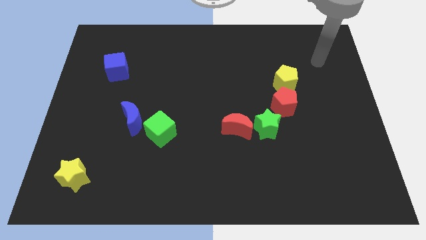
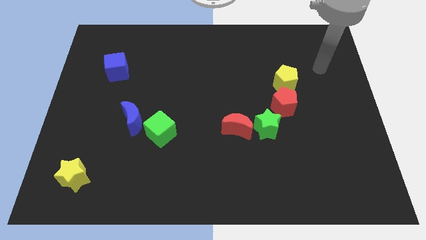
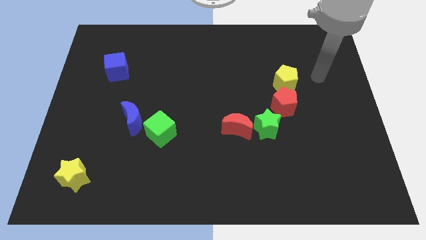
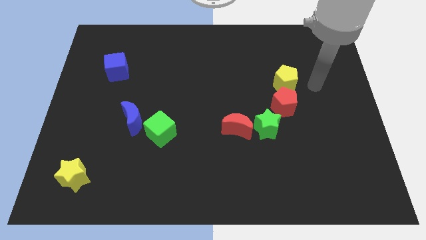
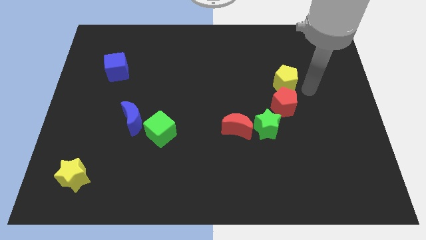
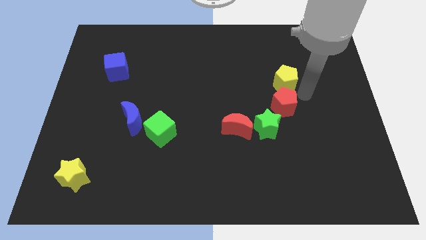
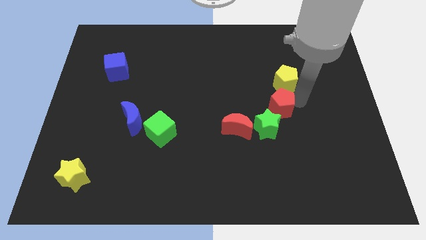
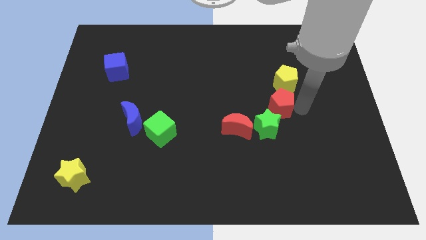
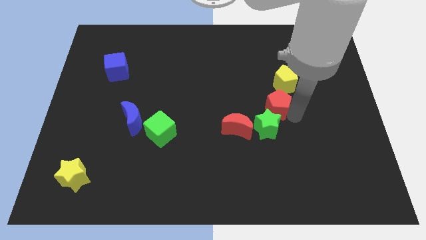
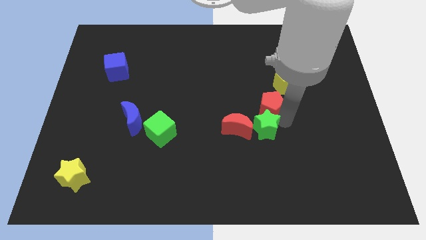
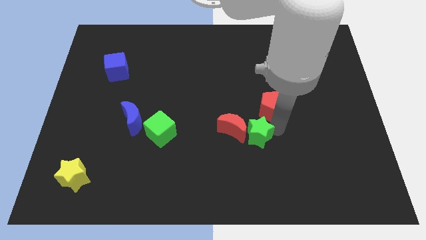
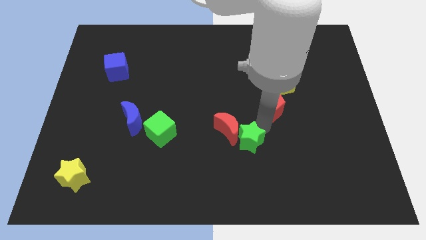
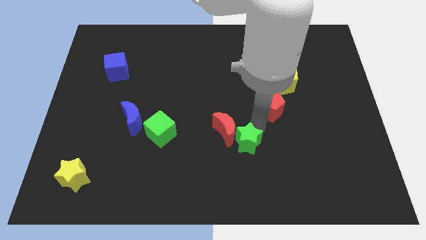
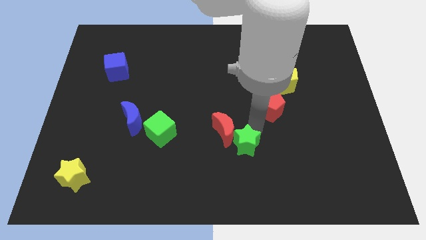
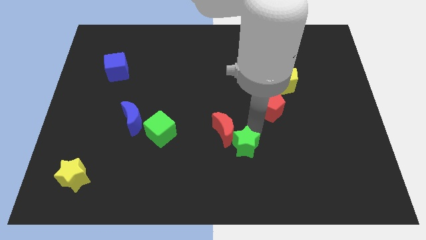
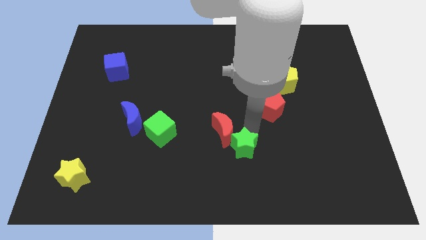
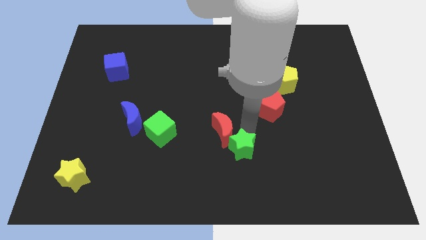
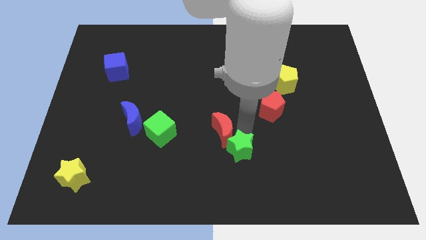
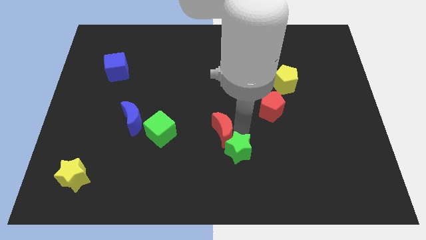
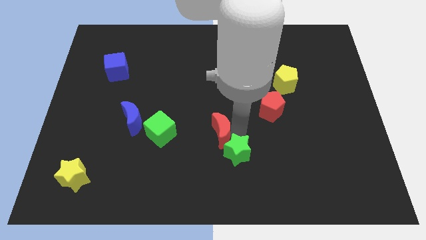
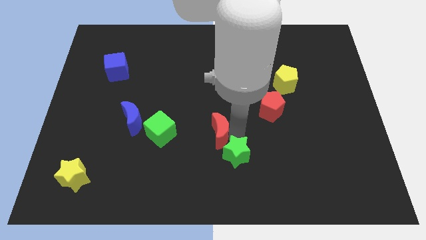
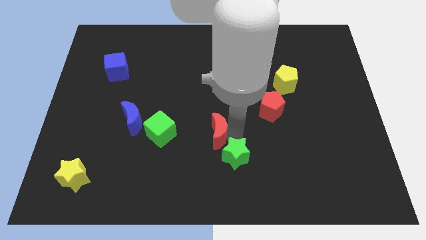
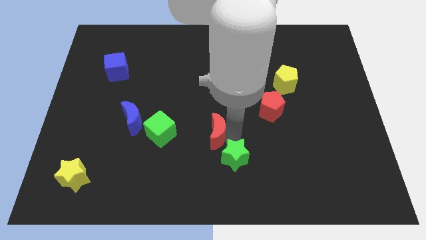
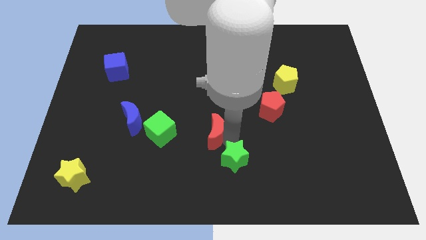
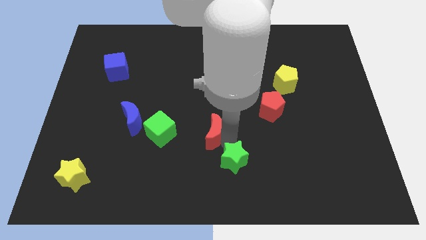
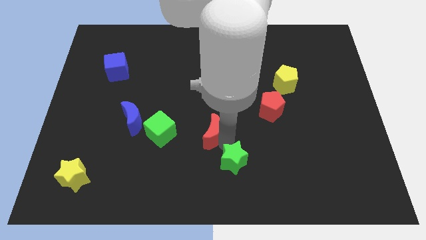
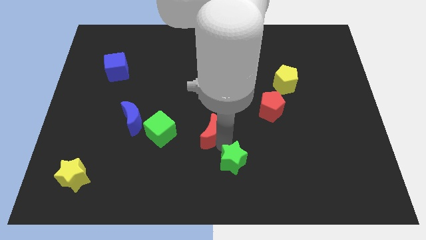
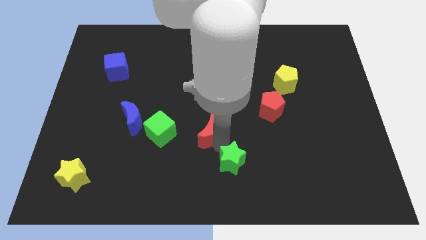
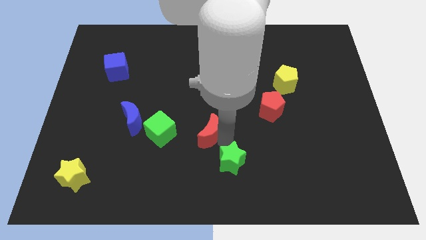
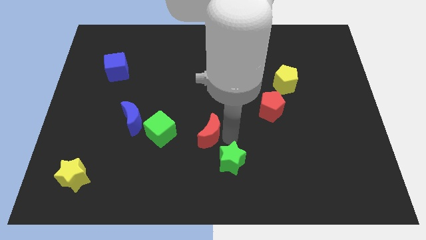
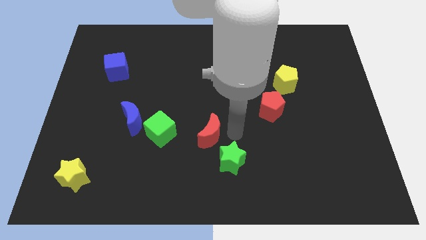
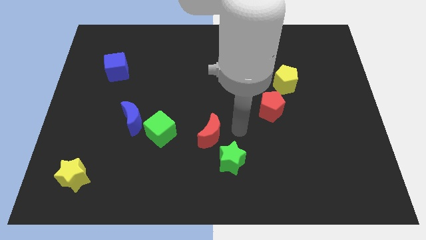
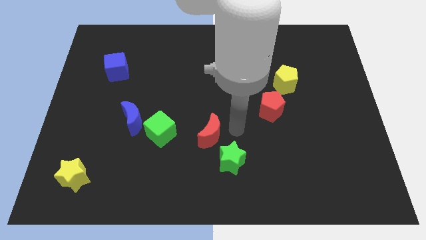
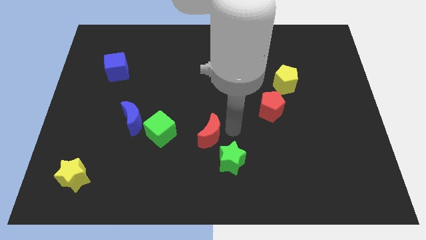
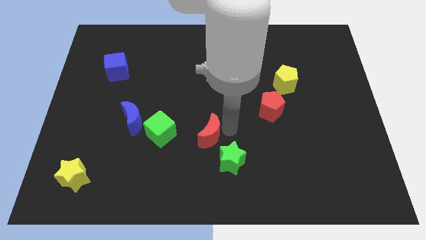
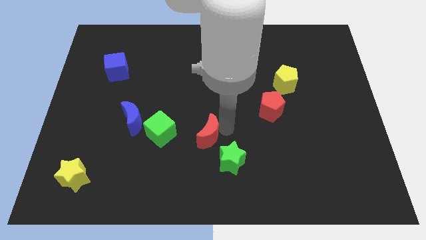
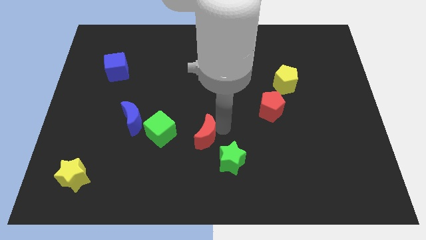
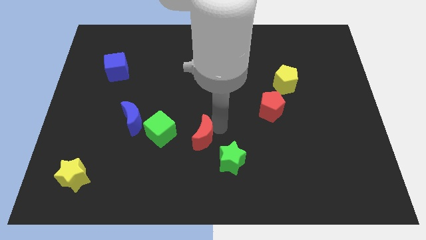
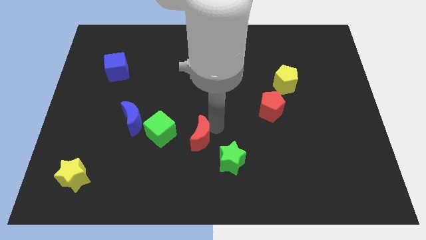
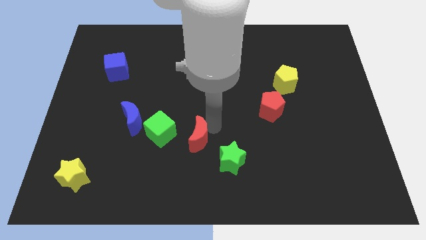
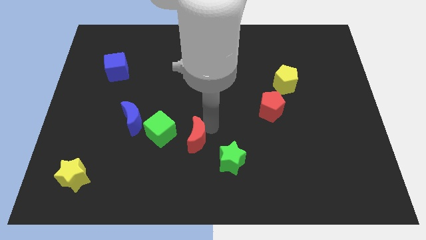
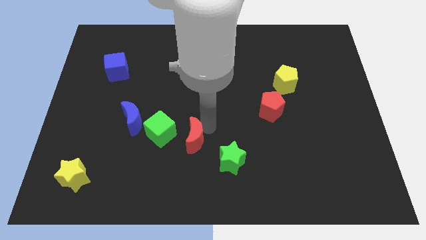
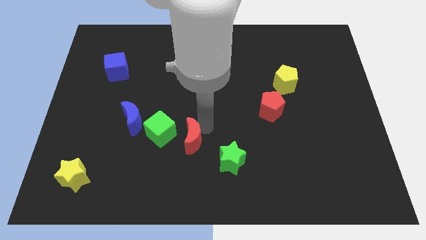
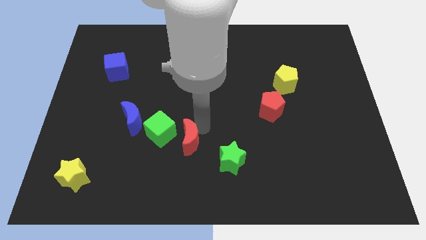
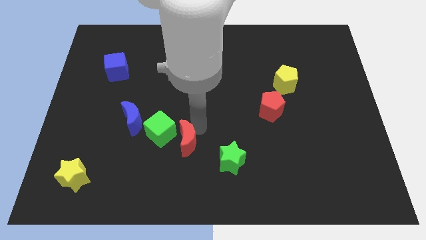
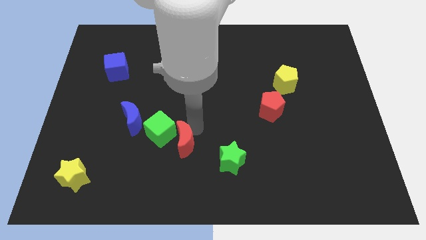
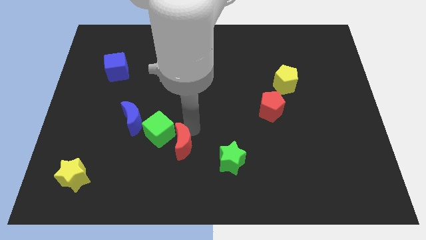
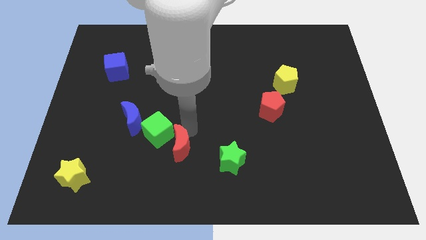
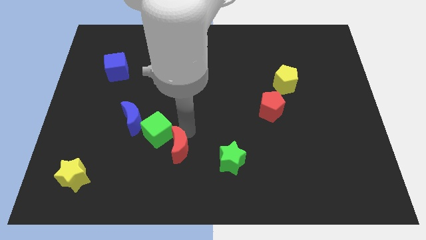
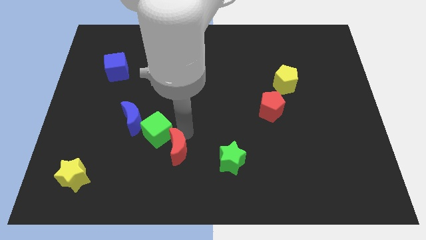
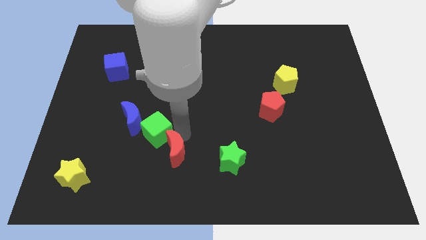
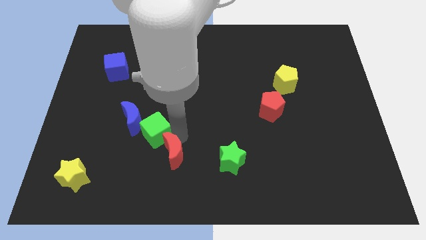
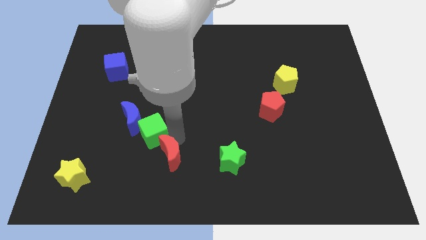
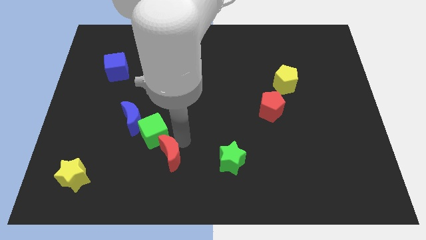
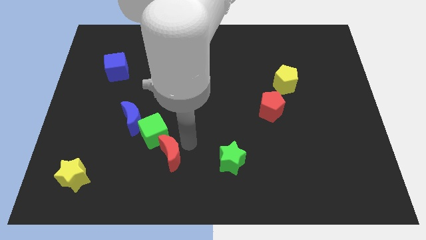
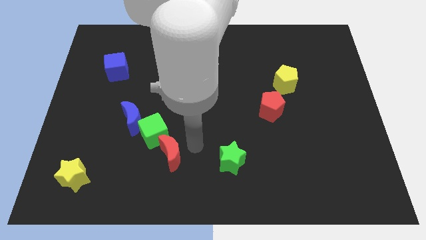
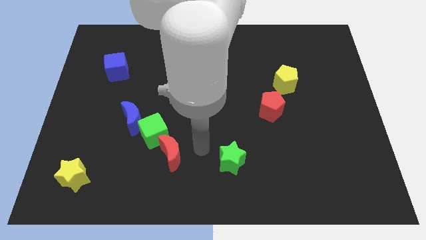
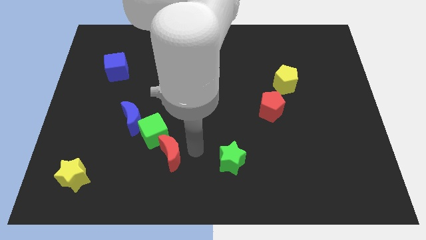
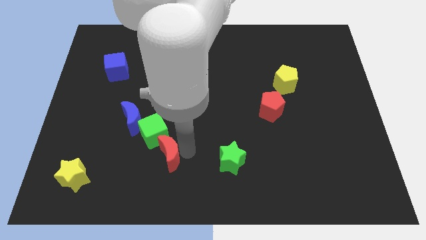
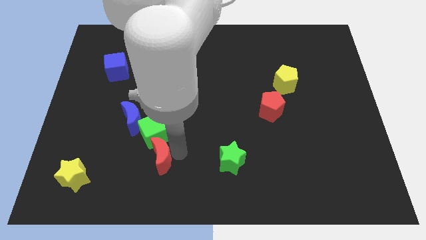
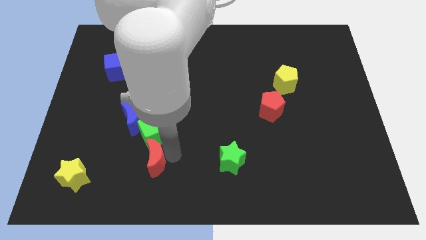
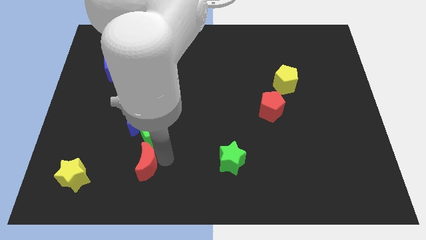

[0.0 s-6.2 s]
put the red moon to the bottom of the blue moon

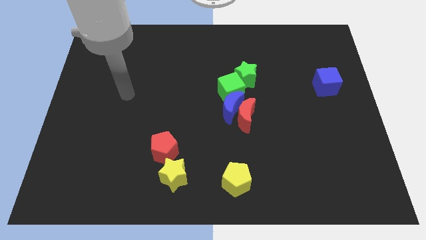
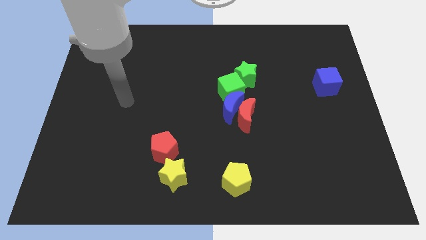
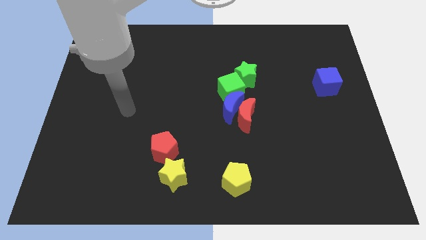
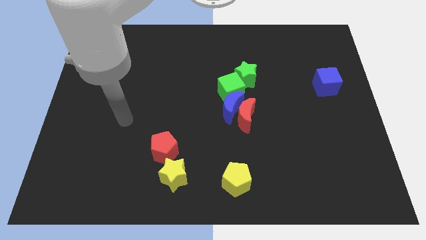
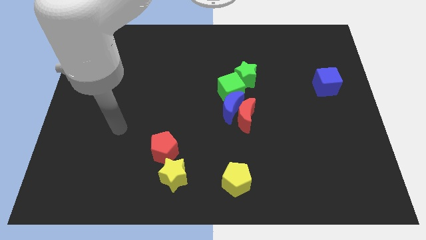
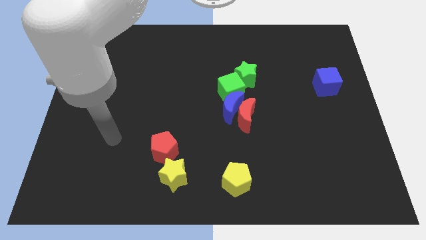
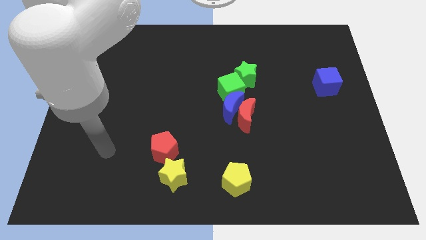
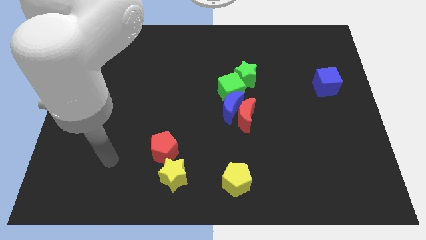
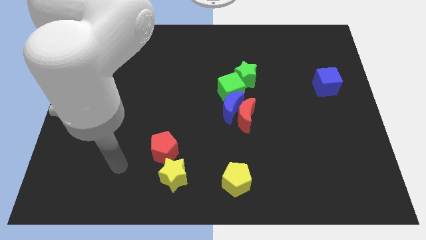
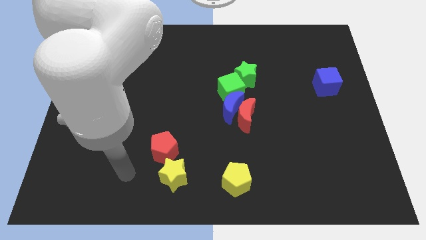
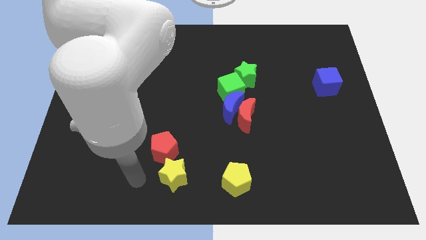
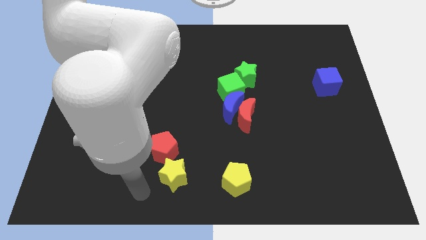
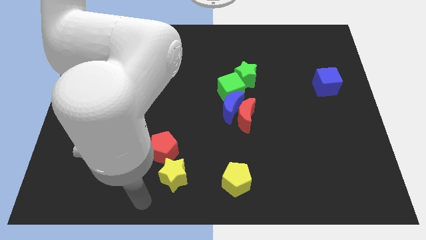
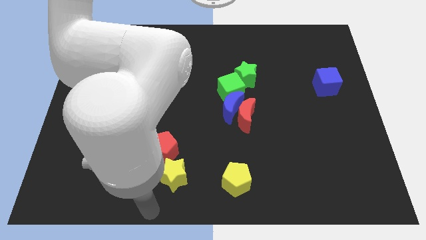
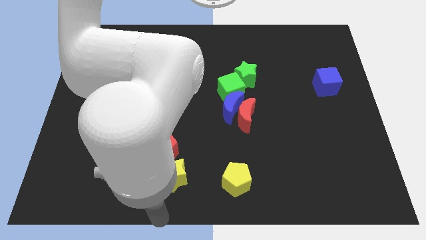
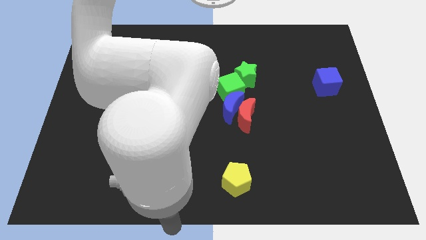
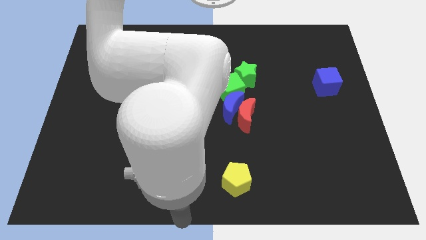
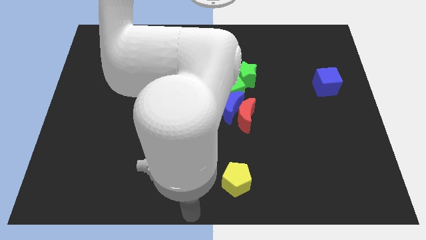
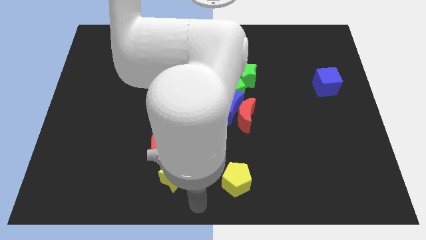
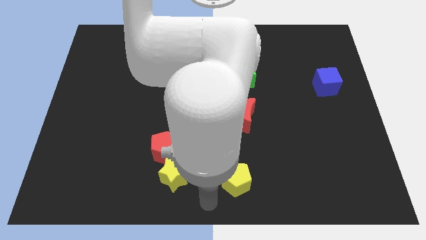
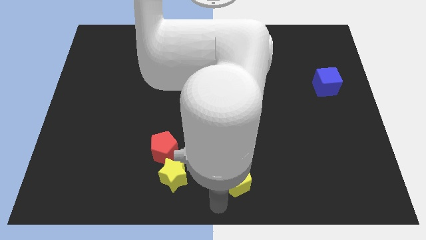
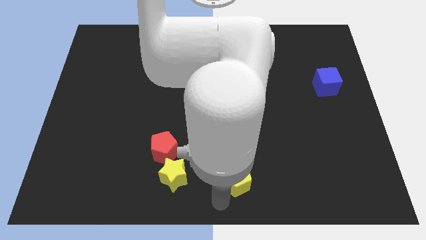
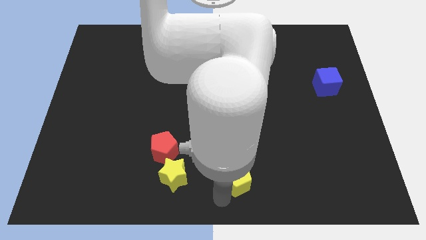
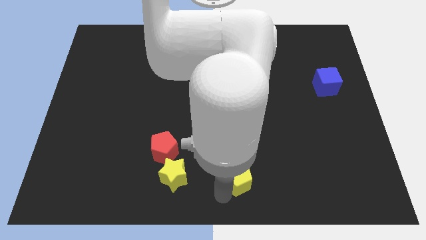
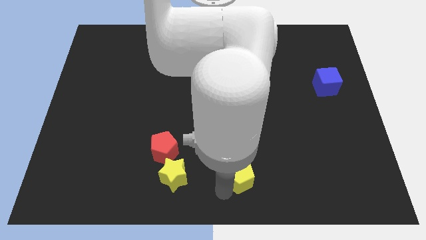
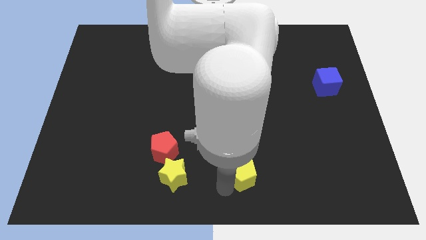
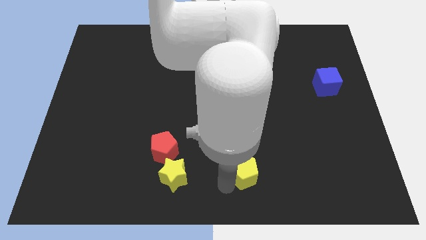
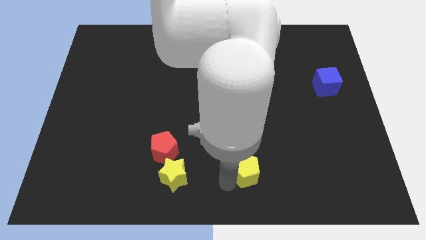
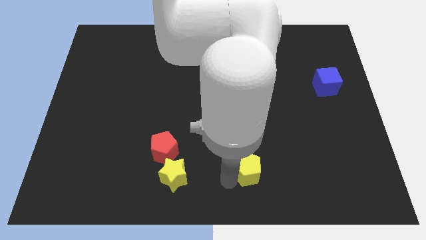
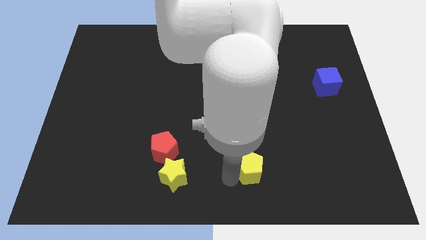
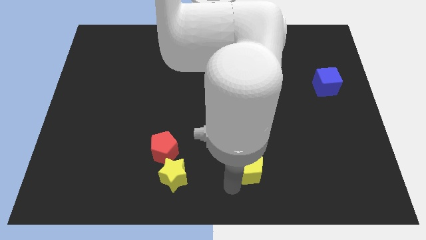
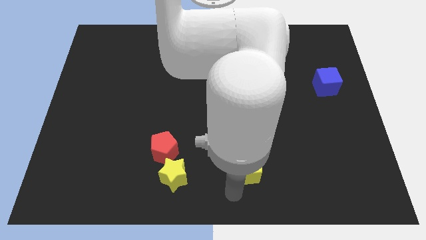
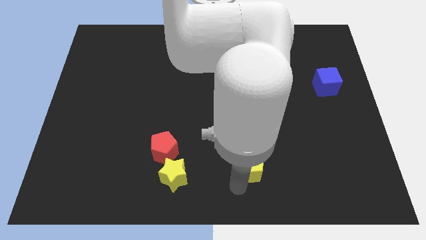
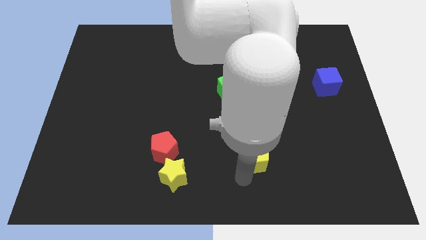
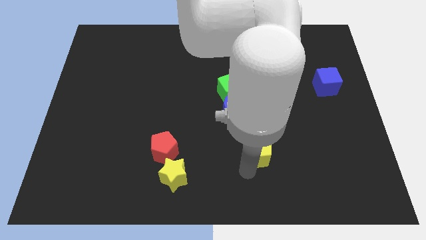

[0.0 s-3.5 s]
push the yellow pentagon to the bottom right of the red moon
